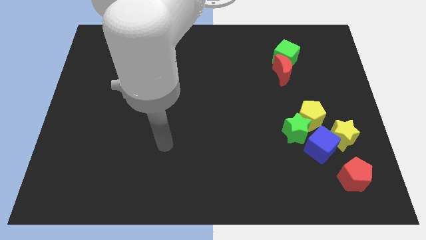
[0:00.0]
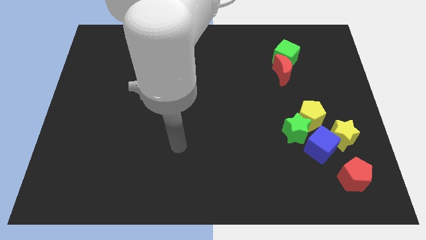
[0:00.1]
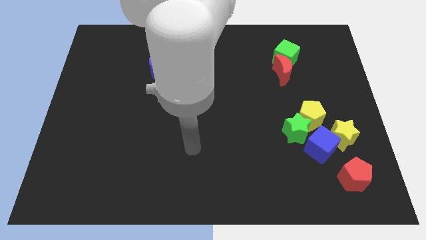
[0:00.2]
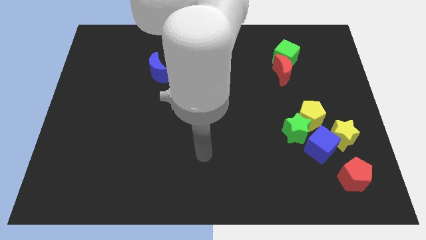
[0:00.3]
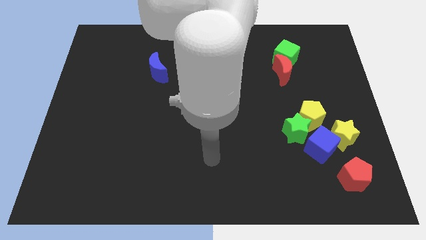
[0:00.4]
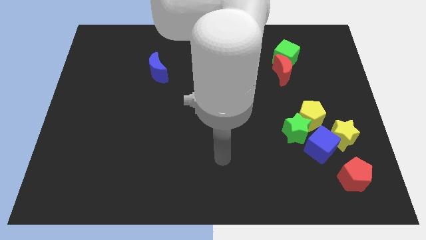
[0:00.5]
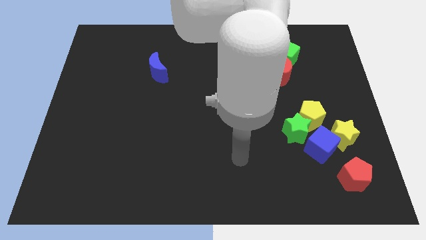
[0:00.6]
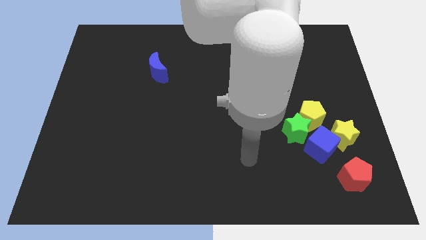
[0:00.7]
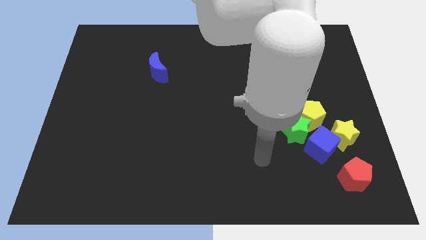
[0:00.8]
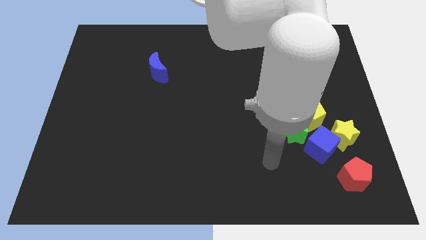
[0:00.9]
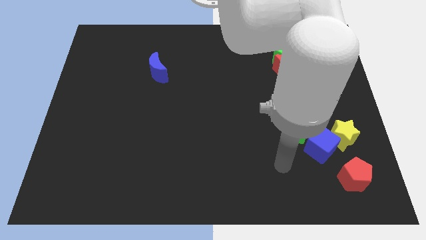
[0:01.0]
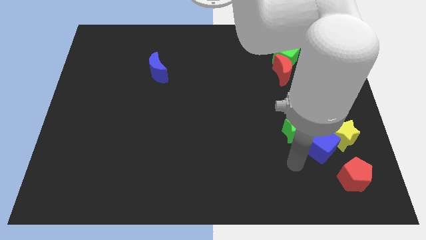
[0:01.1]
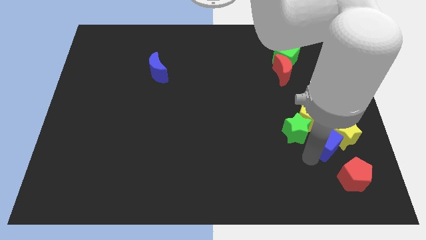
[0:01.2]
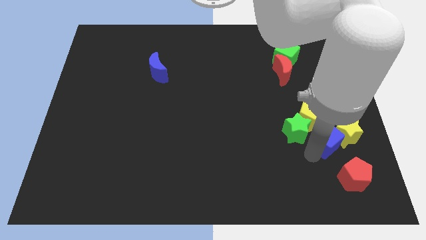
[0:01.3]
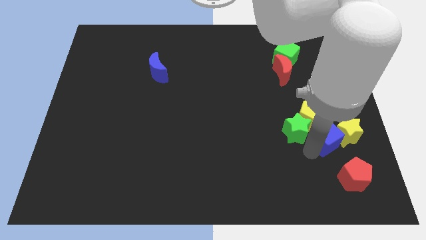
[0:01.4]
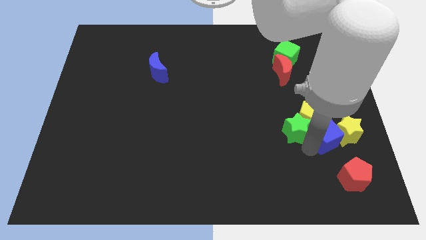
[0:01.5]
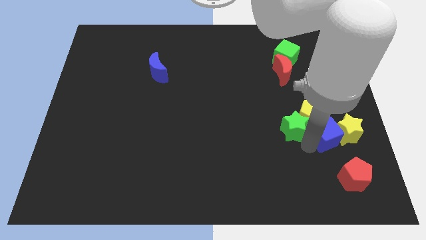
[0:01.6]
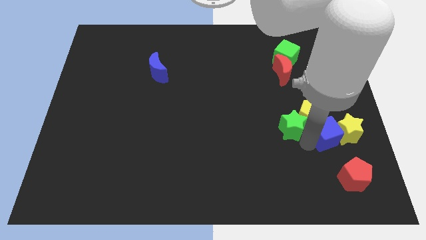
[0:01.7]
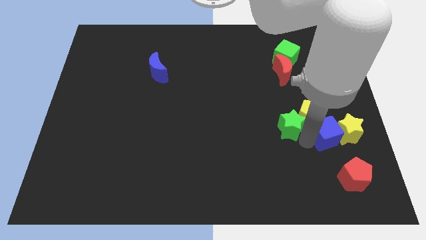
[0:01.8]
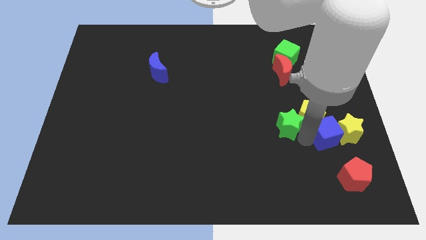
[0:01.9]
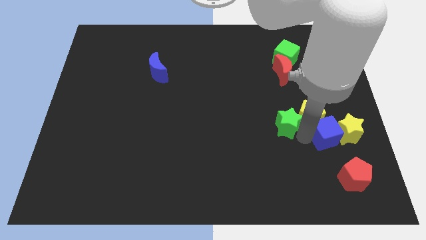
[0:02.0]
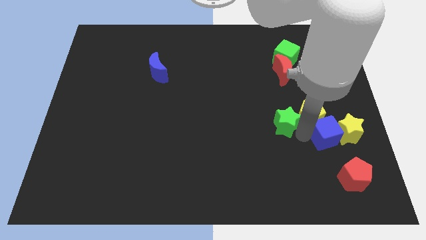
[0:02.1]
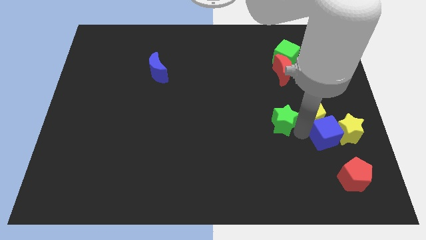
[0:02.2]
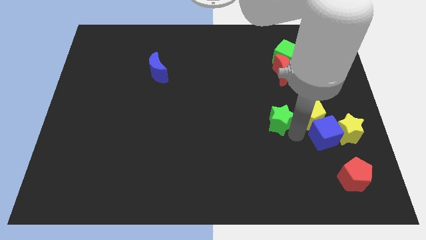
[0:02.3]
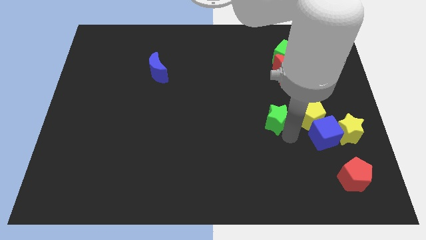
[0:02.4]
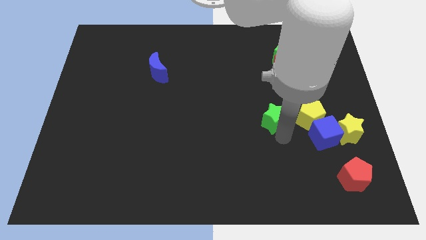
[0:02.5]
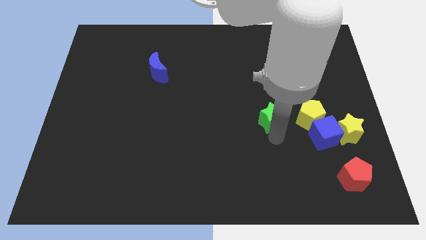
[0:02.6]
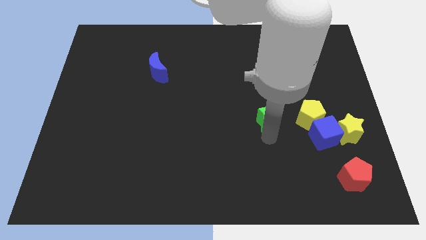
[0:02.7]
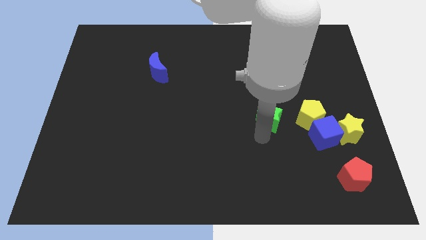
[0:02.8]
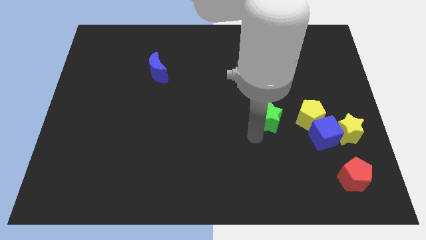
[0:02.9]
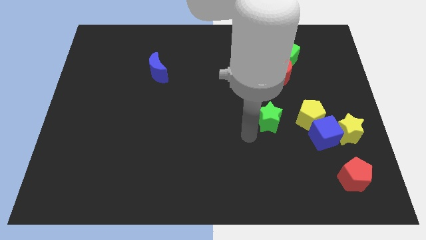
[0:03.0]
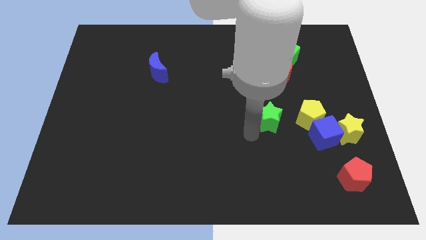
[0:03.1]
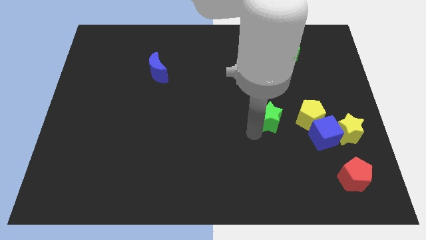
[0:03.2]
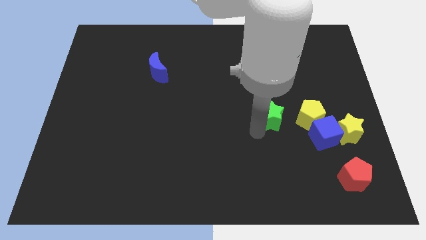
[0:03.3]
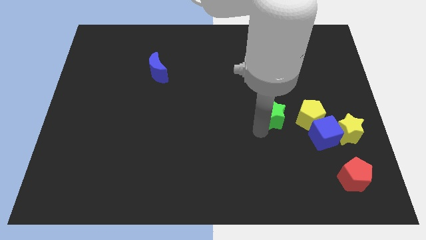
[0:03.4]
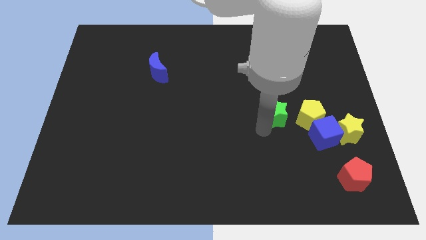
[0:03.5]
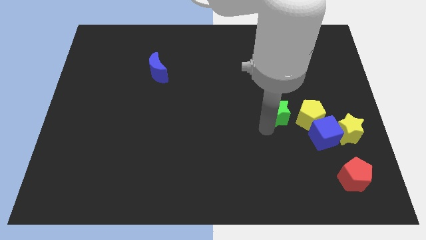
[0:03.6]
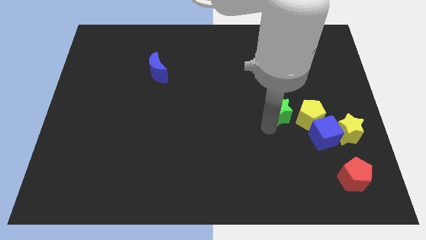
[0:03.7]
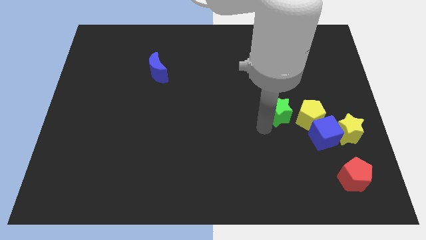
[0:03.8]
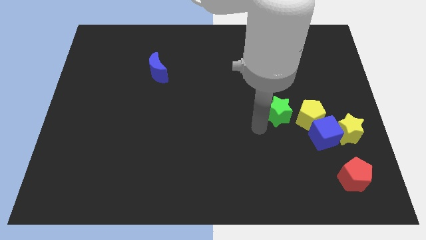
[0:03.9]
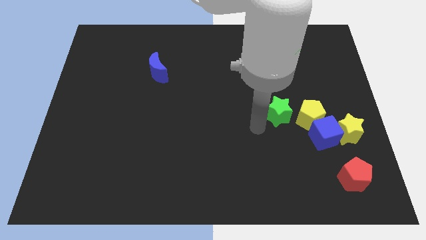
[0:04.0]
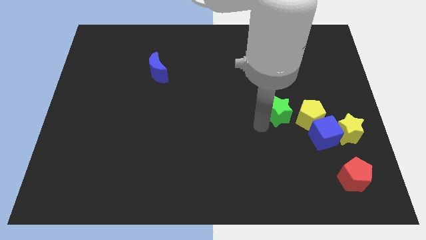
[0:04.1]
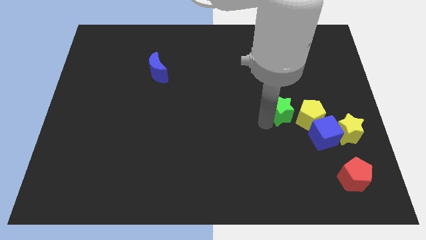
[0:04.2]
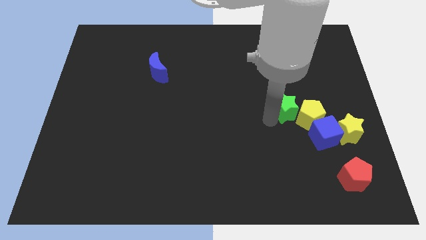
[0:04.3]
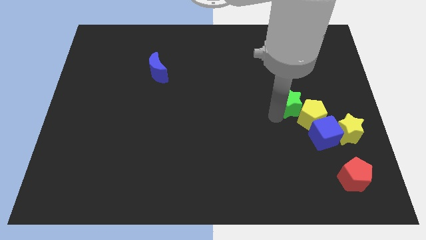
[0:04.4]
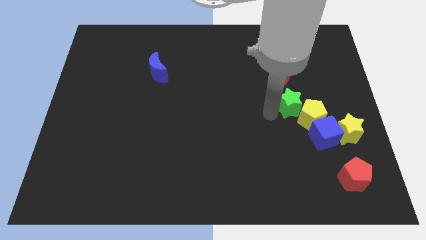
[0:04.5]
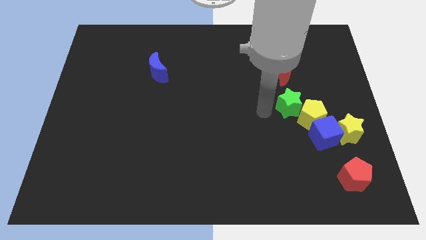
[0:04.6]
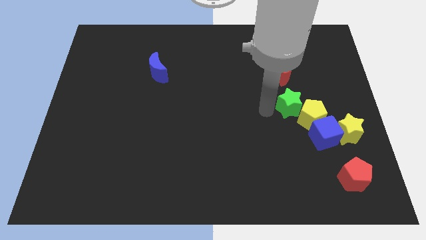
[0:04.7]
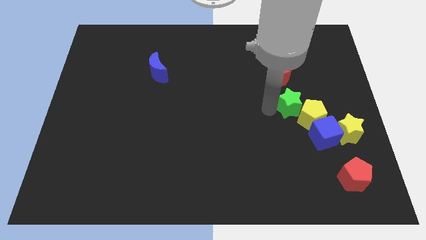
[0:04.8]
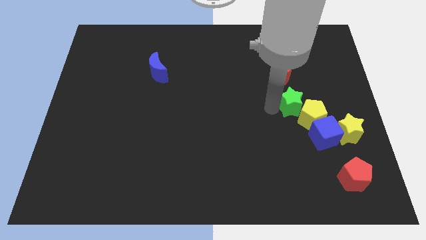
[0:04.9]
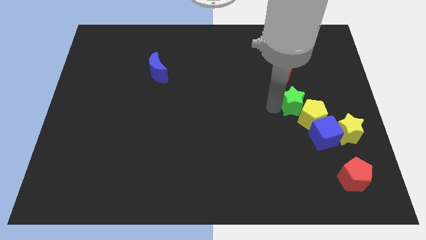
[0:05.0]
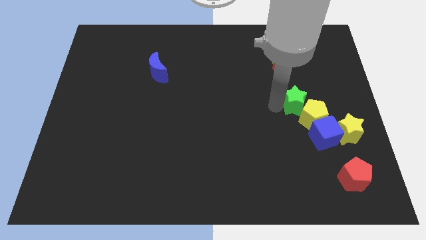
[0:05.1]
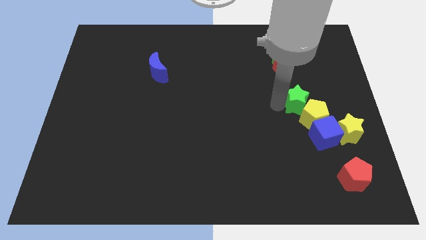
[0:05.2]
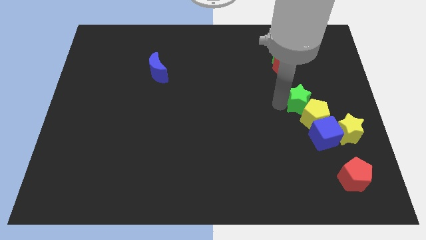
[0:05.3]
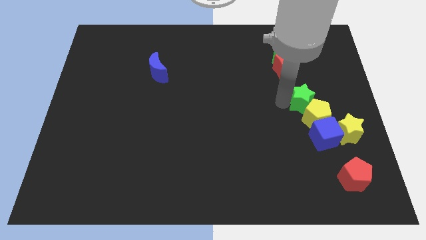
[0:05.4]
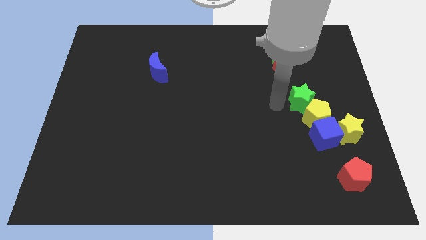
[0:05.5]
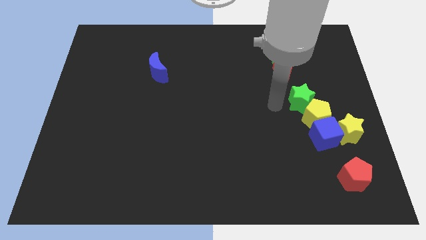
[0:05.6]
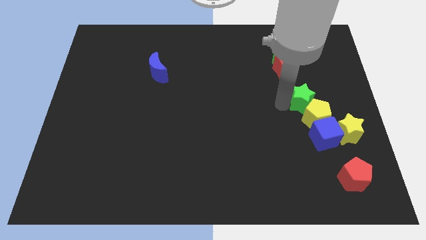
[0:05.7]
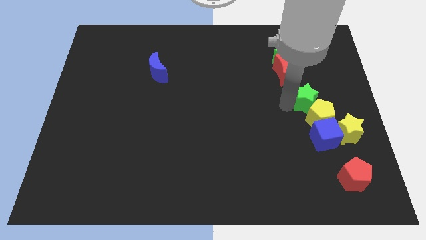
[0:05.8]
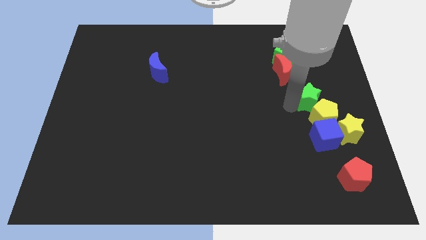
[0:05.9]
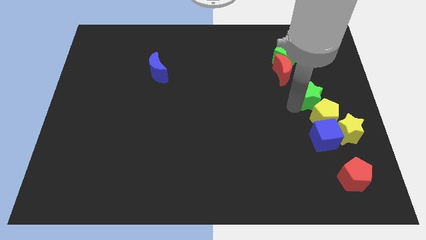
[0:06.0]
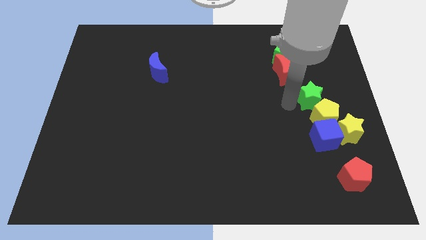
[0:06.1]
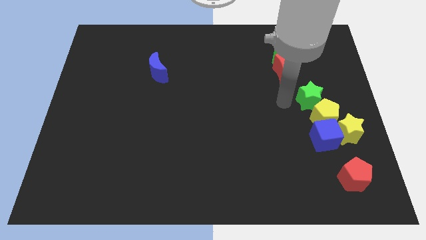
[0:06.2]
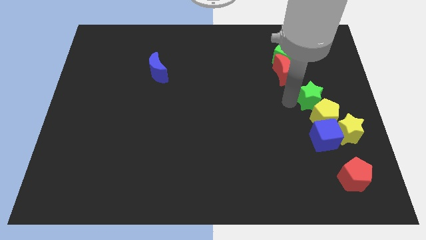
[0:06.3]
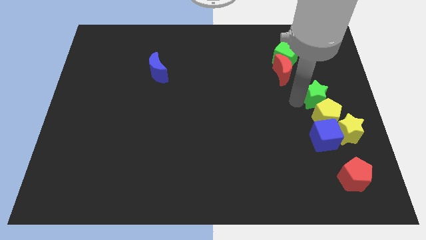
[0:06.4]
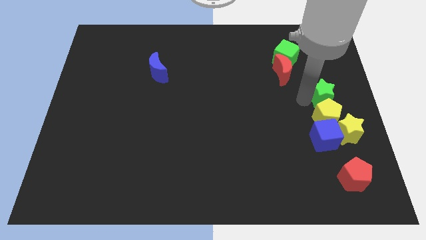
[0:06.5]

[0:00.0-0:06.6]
slide the green star to the top of the yellow star

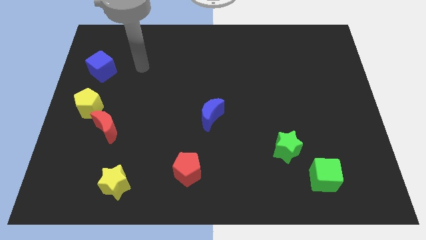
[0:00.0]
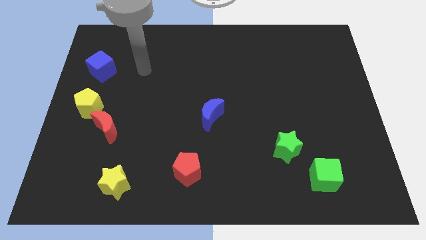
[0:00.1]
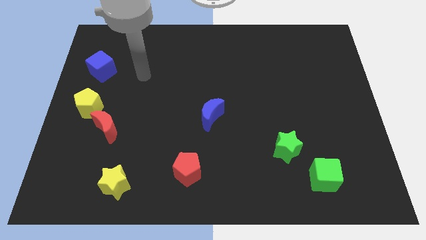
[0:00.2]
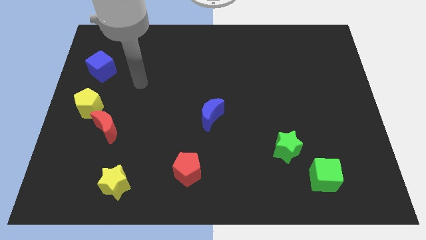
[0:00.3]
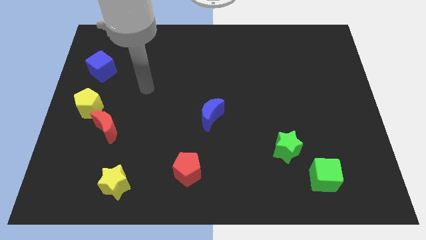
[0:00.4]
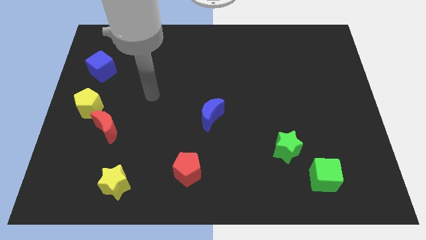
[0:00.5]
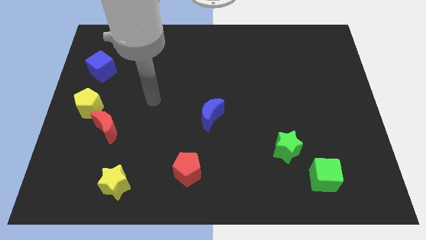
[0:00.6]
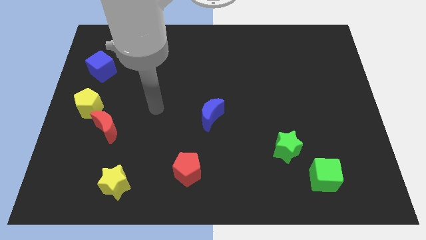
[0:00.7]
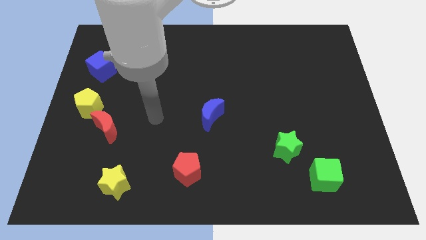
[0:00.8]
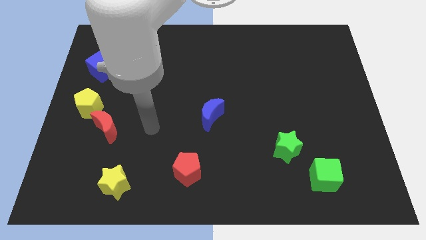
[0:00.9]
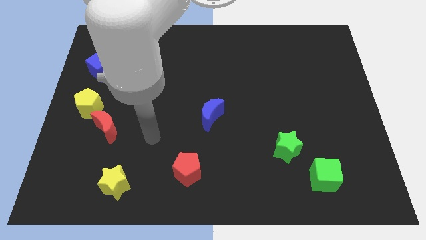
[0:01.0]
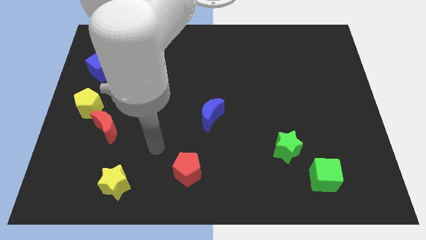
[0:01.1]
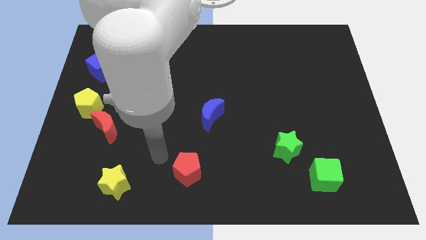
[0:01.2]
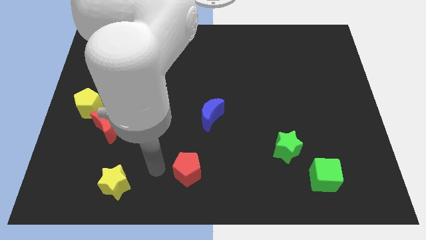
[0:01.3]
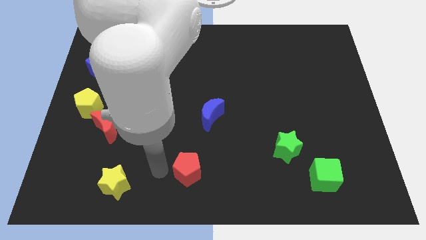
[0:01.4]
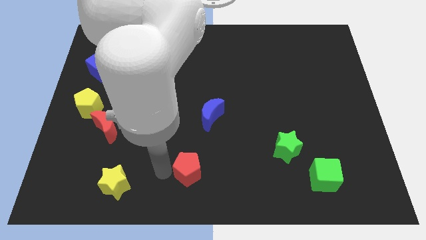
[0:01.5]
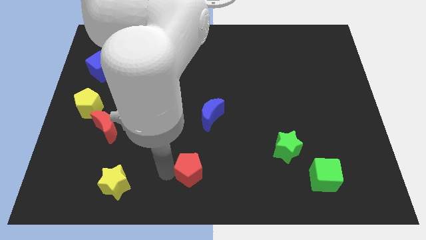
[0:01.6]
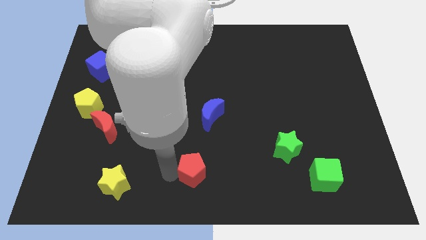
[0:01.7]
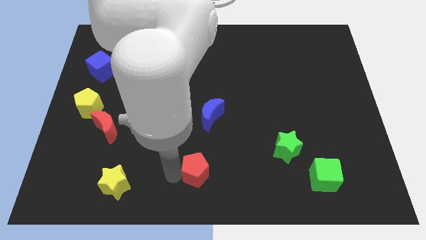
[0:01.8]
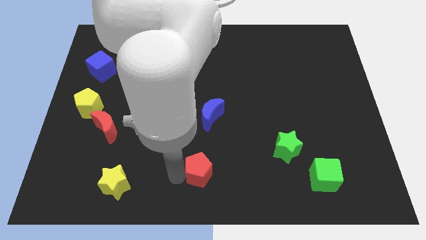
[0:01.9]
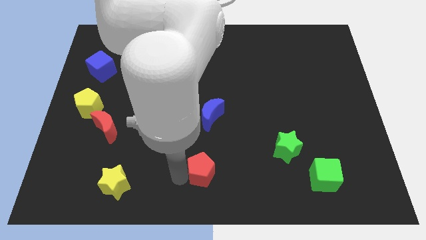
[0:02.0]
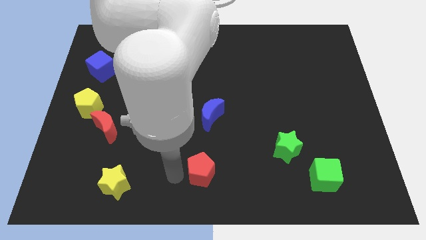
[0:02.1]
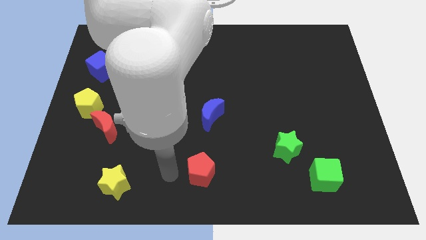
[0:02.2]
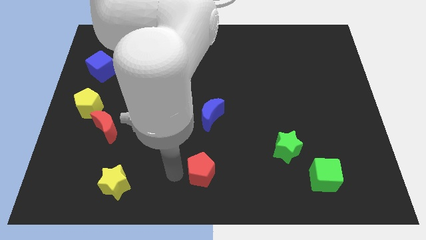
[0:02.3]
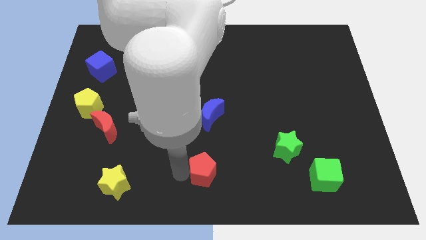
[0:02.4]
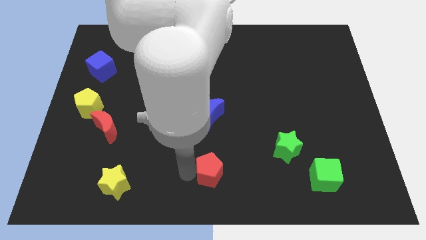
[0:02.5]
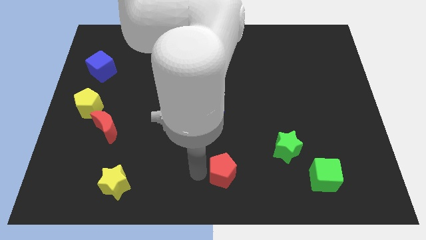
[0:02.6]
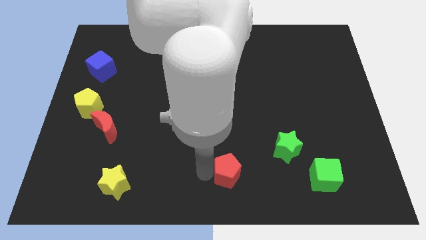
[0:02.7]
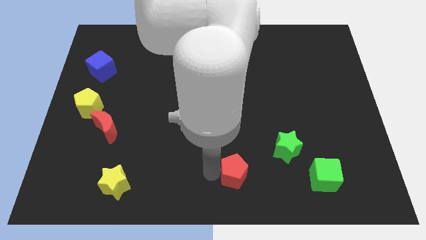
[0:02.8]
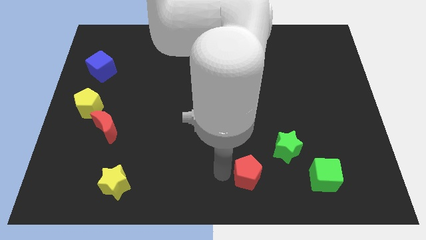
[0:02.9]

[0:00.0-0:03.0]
slide the red pentagon left of the green cube
